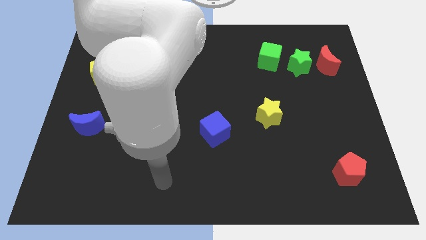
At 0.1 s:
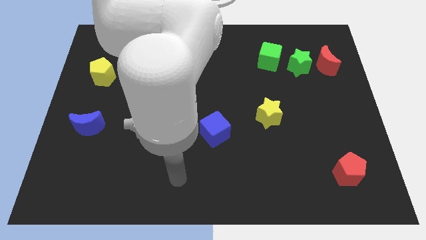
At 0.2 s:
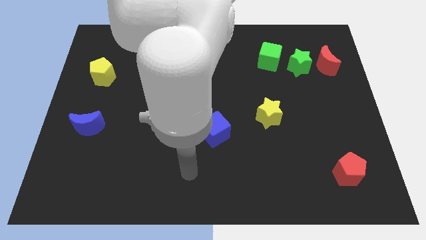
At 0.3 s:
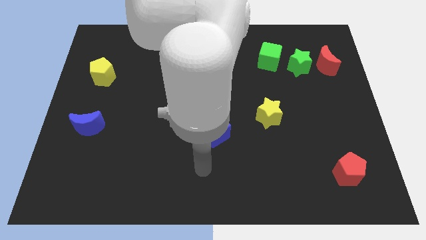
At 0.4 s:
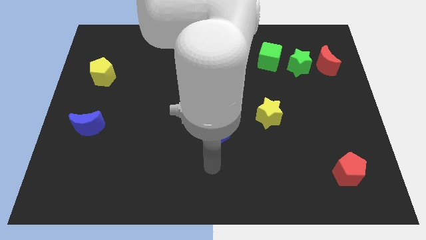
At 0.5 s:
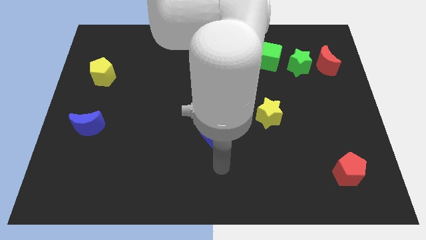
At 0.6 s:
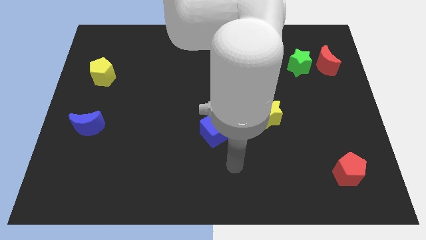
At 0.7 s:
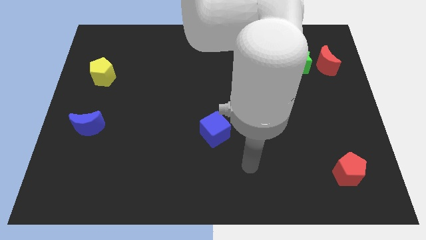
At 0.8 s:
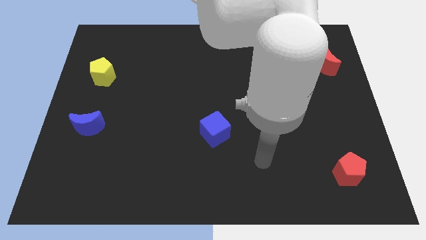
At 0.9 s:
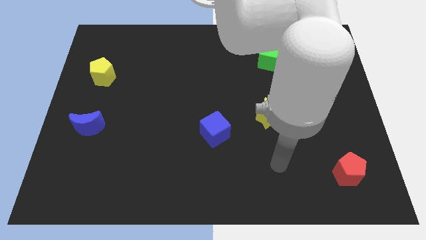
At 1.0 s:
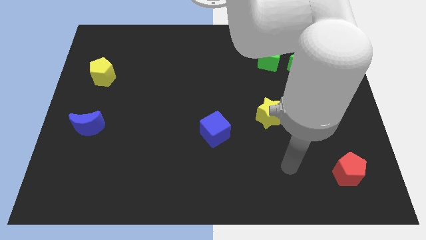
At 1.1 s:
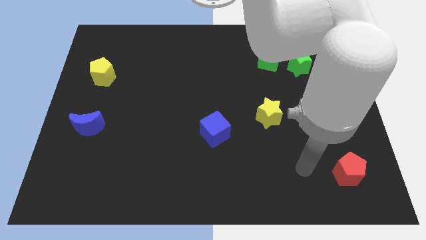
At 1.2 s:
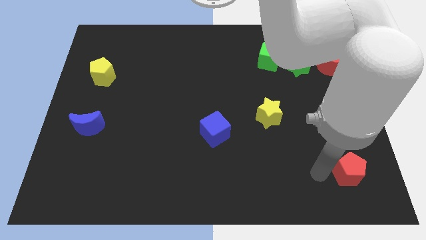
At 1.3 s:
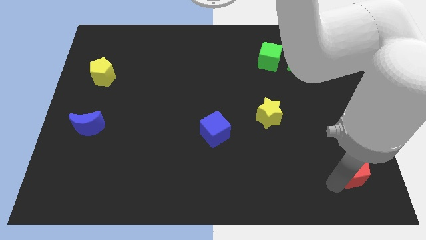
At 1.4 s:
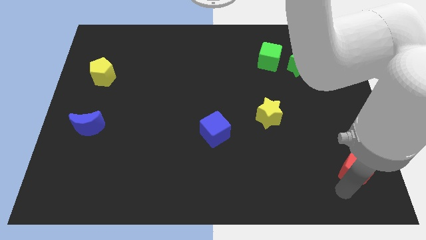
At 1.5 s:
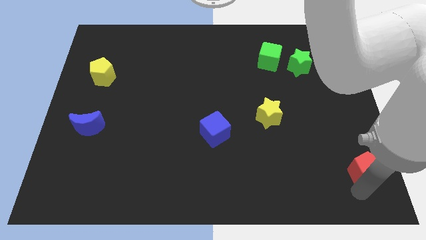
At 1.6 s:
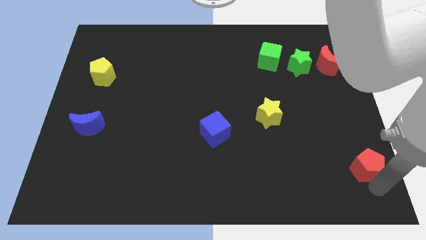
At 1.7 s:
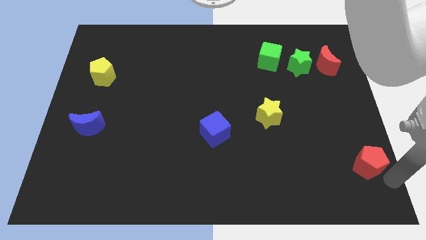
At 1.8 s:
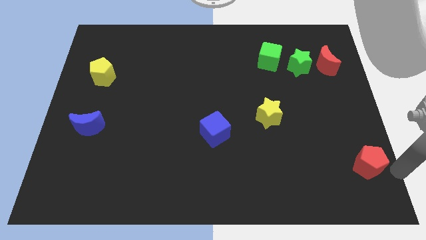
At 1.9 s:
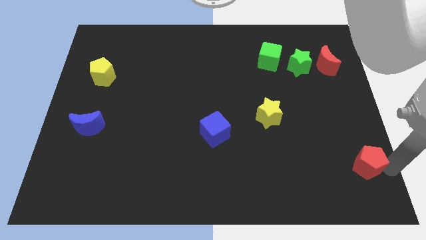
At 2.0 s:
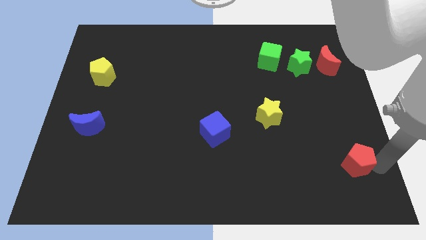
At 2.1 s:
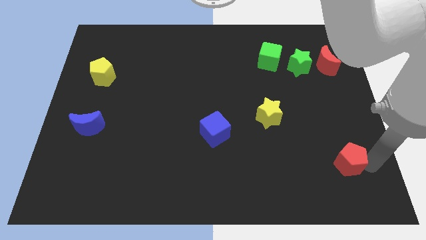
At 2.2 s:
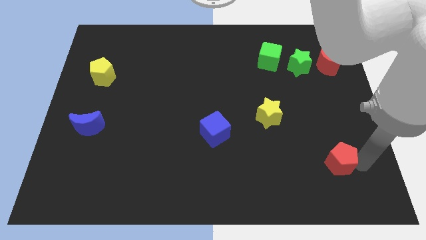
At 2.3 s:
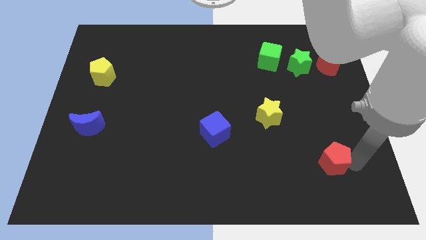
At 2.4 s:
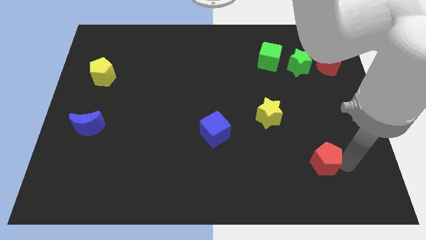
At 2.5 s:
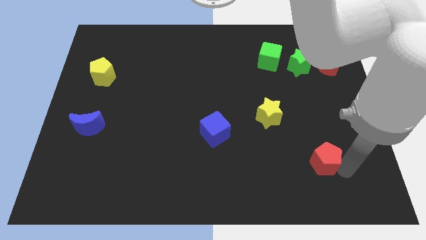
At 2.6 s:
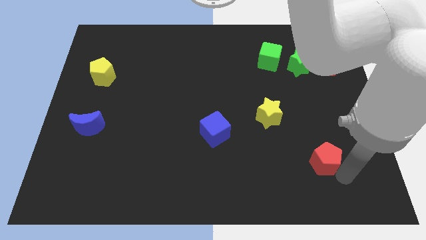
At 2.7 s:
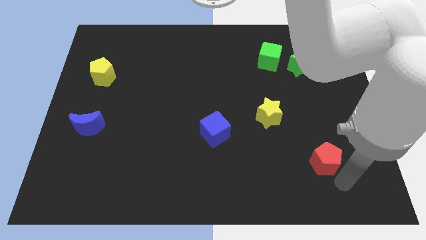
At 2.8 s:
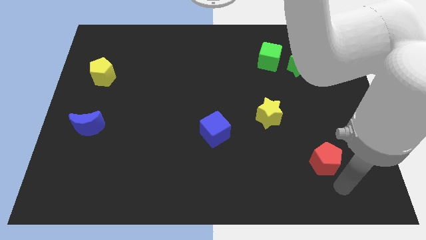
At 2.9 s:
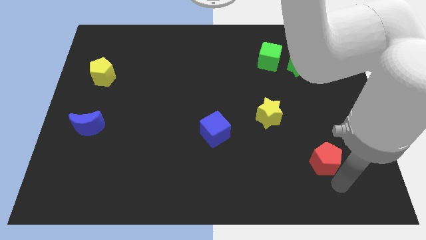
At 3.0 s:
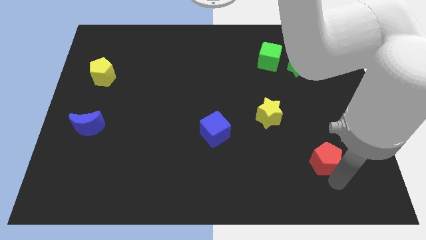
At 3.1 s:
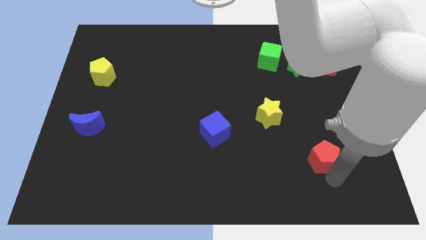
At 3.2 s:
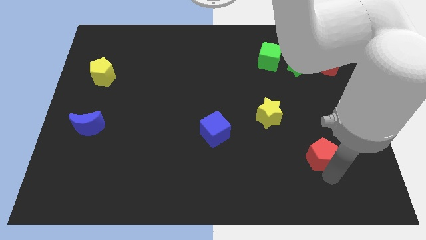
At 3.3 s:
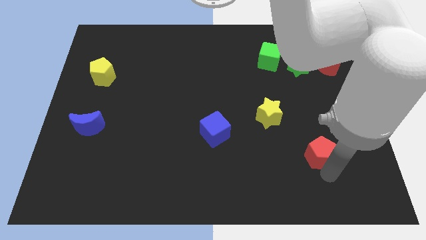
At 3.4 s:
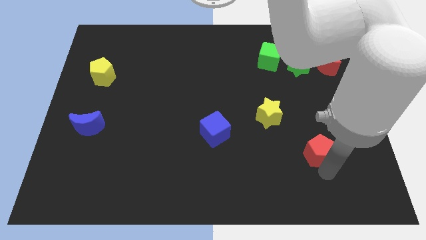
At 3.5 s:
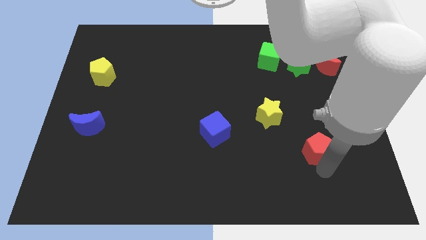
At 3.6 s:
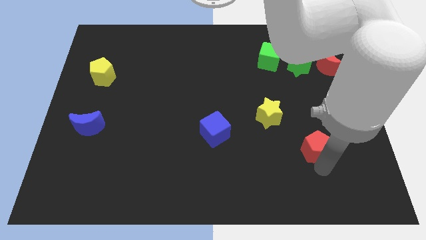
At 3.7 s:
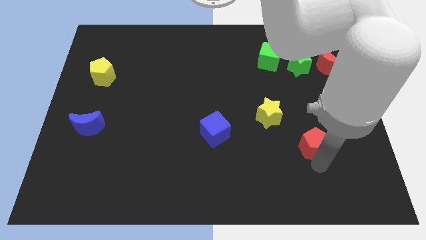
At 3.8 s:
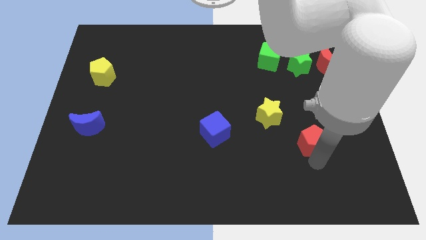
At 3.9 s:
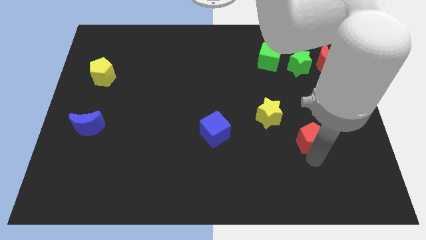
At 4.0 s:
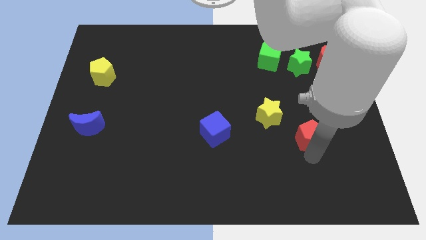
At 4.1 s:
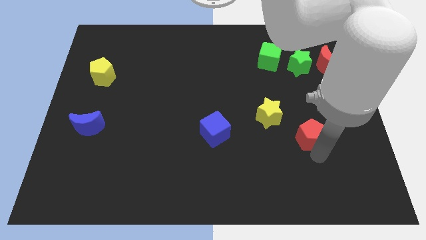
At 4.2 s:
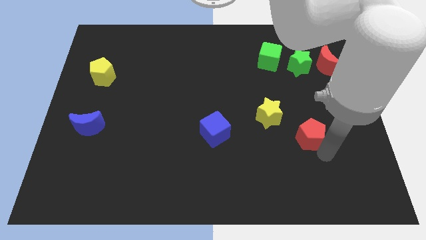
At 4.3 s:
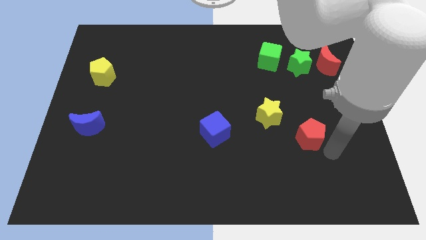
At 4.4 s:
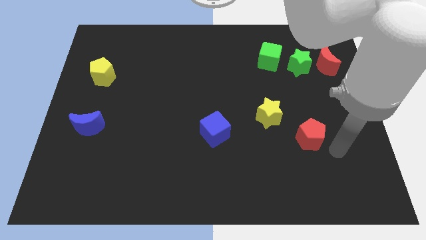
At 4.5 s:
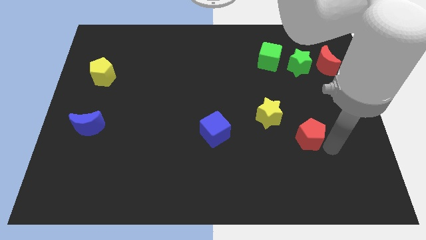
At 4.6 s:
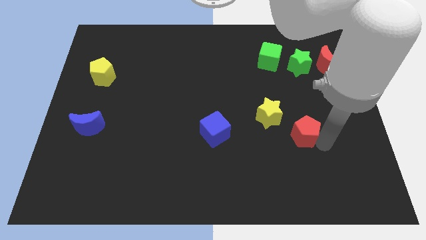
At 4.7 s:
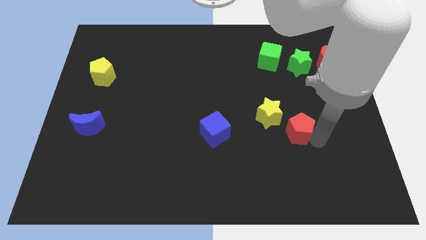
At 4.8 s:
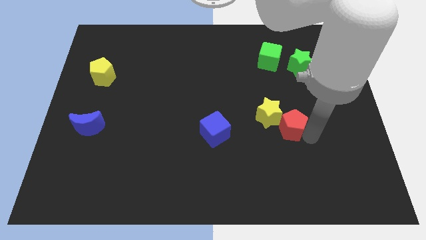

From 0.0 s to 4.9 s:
slide the red pentagon next to the yellow star

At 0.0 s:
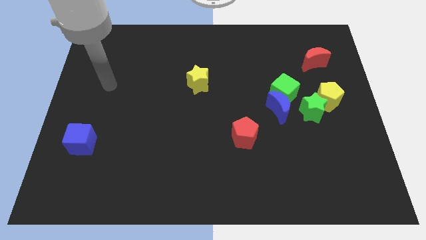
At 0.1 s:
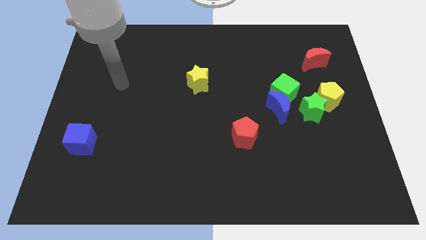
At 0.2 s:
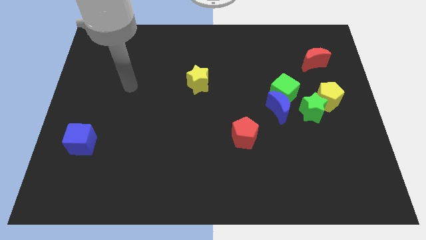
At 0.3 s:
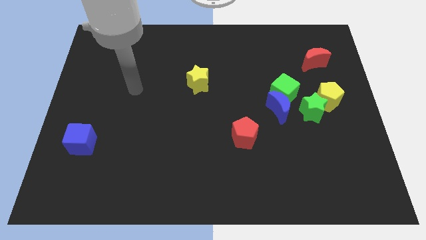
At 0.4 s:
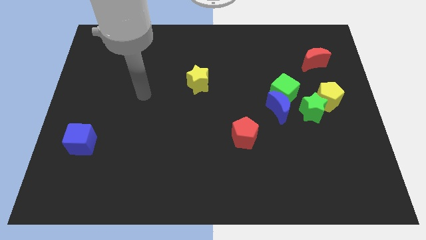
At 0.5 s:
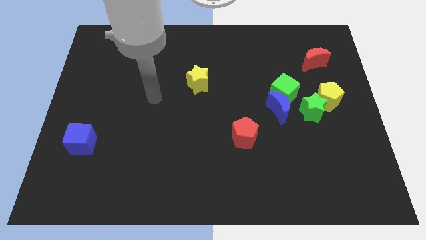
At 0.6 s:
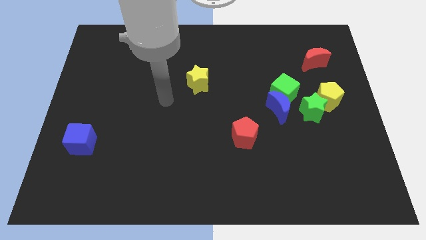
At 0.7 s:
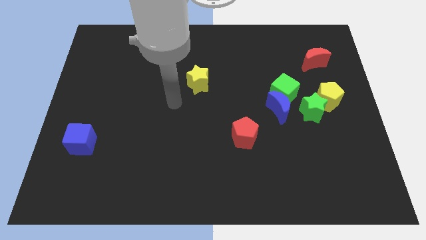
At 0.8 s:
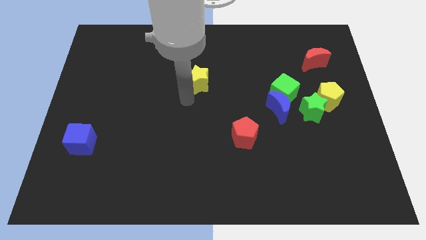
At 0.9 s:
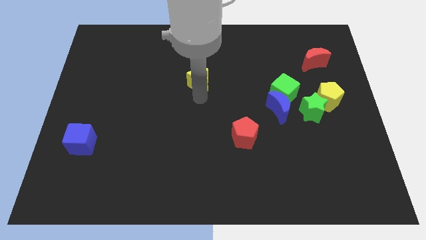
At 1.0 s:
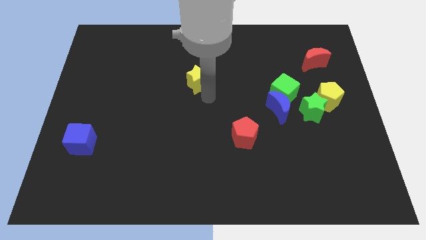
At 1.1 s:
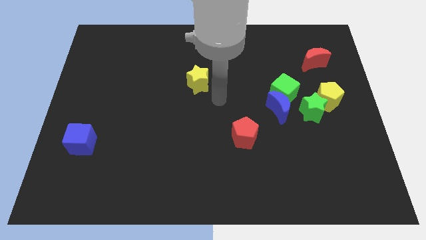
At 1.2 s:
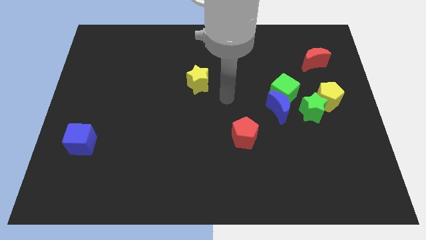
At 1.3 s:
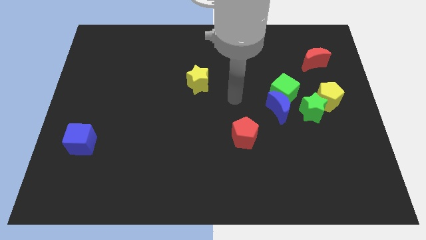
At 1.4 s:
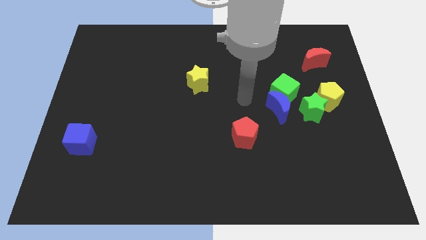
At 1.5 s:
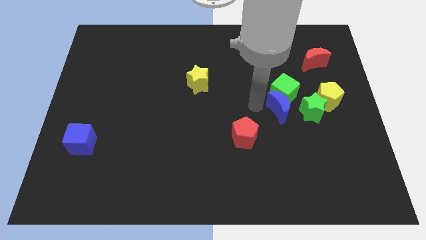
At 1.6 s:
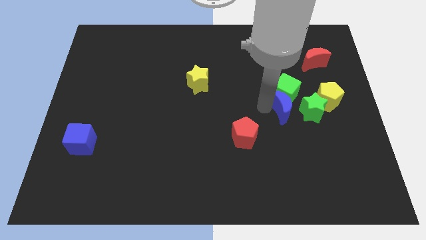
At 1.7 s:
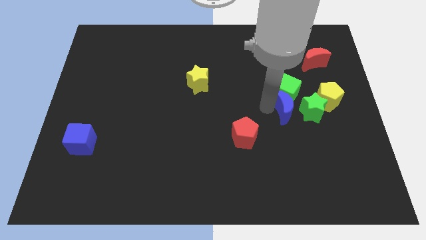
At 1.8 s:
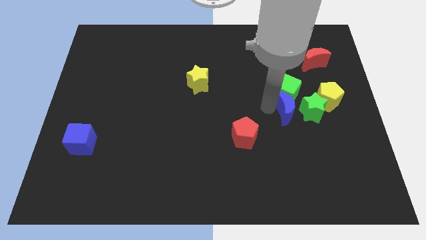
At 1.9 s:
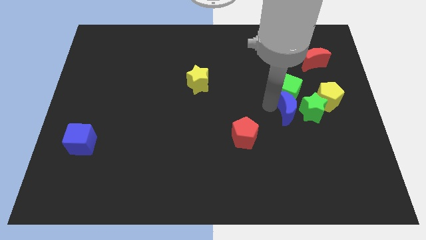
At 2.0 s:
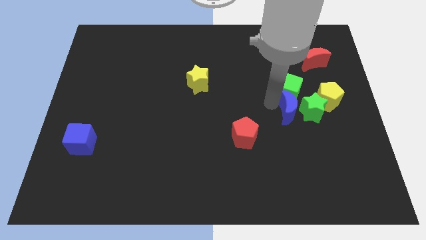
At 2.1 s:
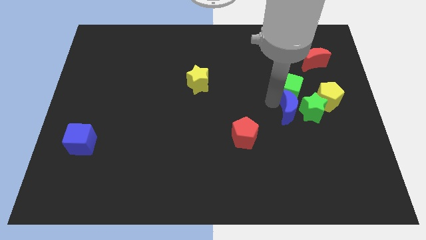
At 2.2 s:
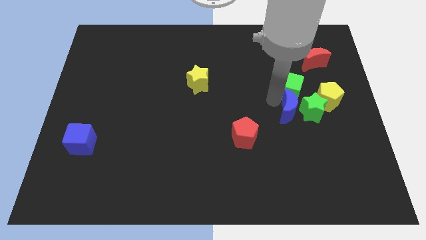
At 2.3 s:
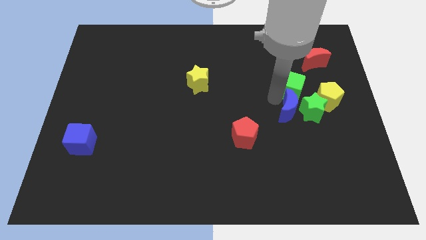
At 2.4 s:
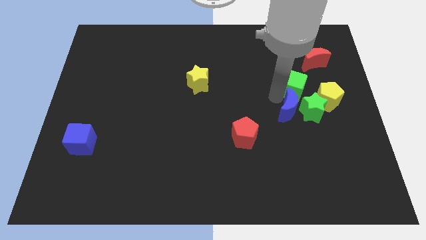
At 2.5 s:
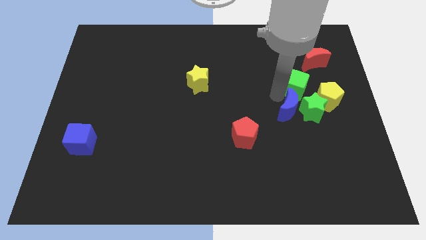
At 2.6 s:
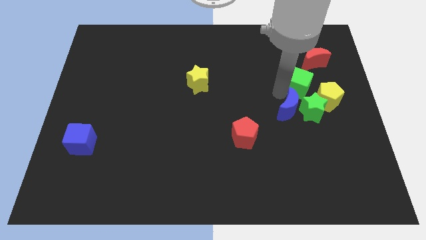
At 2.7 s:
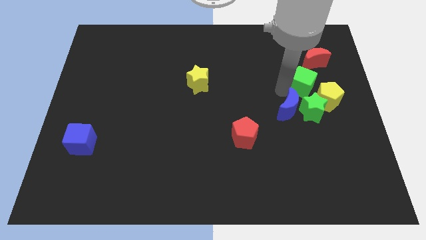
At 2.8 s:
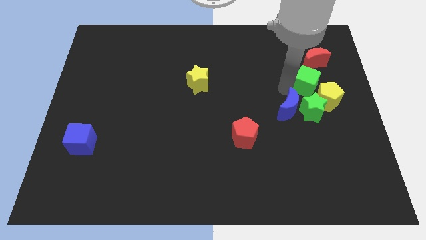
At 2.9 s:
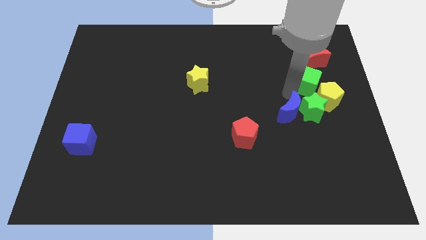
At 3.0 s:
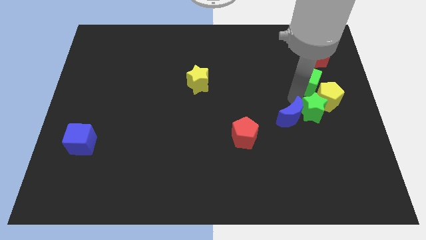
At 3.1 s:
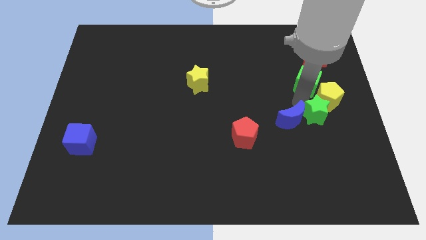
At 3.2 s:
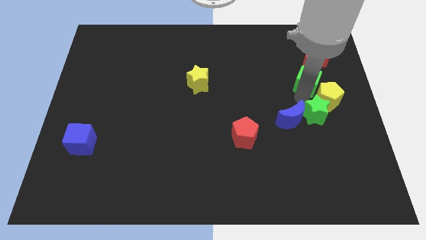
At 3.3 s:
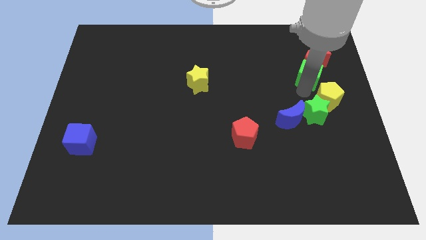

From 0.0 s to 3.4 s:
move the green cube close to the red moon
